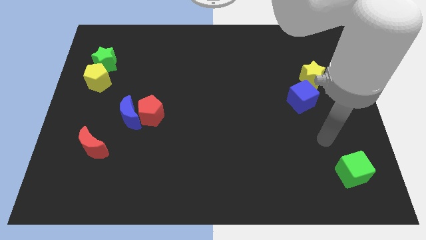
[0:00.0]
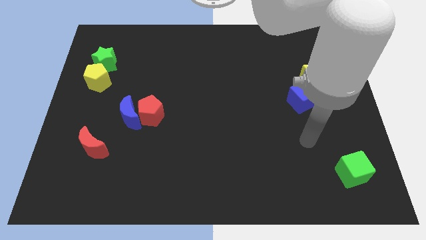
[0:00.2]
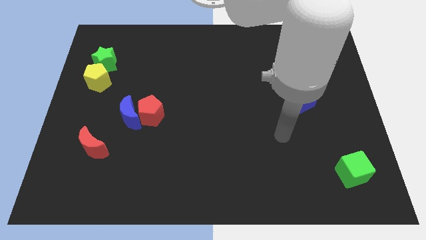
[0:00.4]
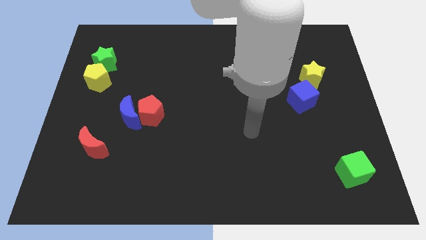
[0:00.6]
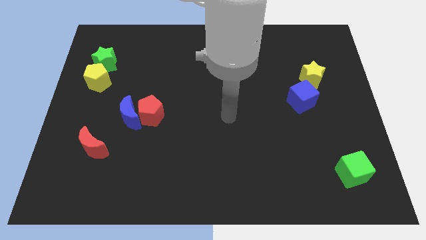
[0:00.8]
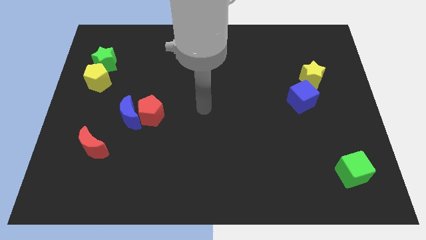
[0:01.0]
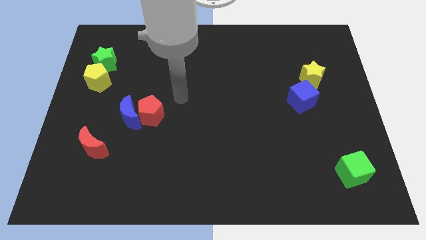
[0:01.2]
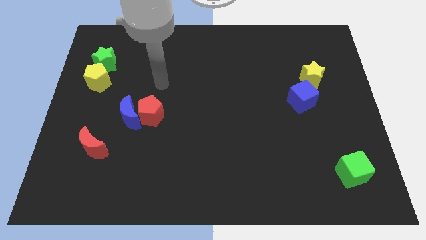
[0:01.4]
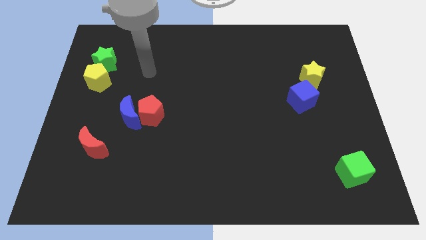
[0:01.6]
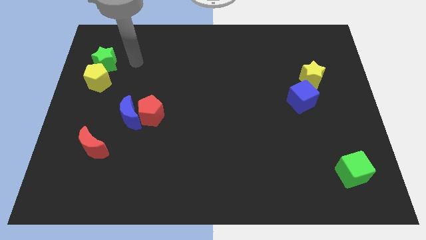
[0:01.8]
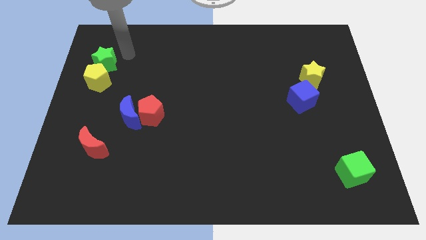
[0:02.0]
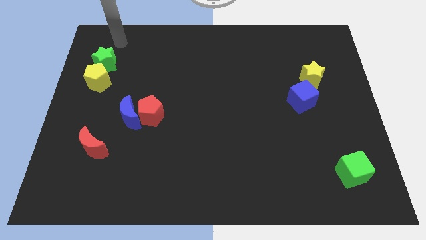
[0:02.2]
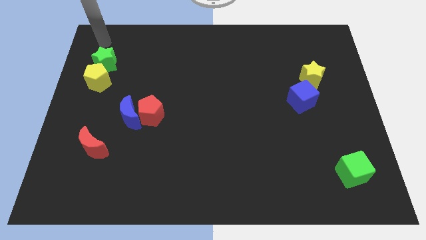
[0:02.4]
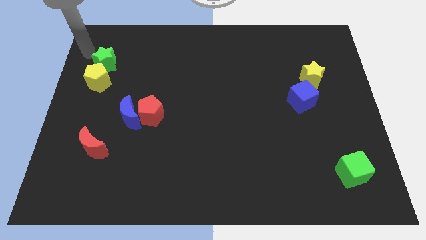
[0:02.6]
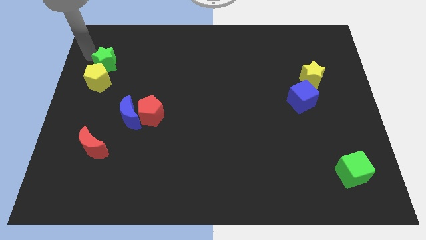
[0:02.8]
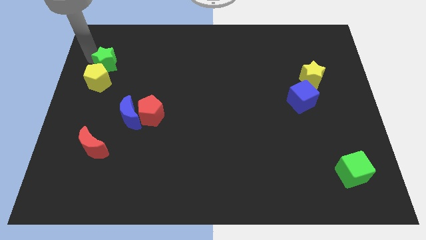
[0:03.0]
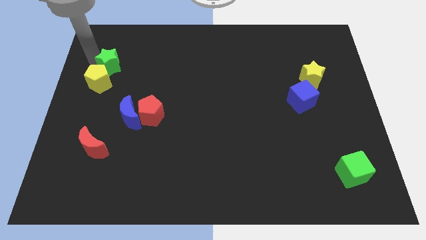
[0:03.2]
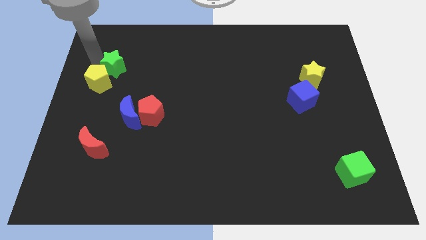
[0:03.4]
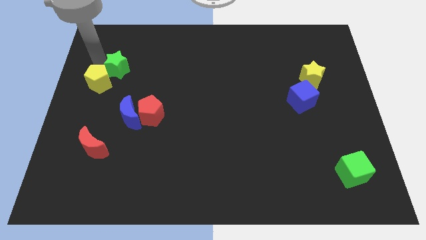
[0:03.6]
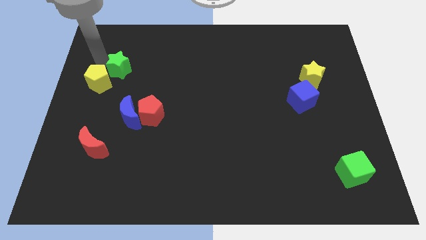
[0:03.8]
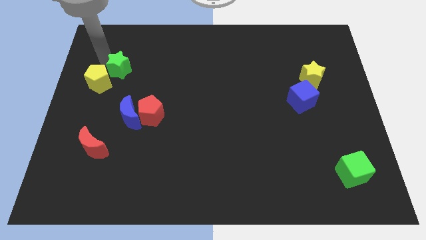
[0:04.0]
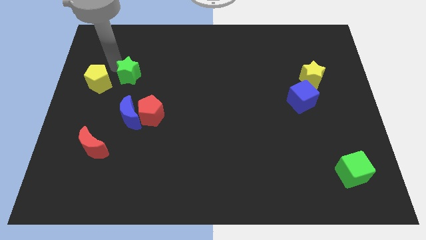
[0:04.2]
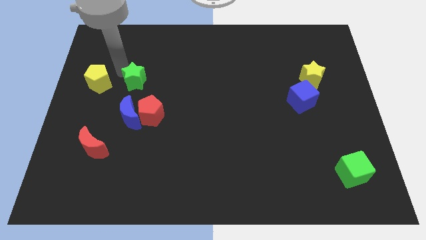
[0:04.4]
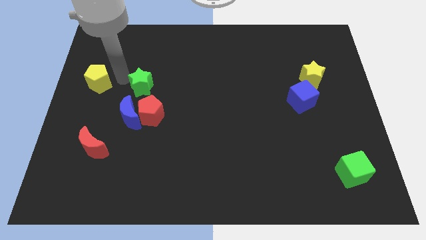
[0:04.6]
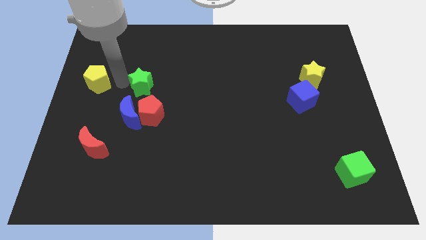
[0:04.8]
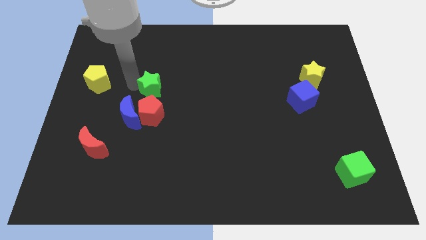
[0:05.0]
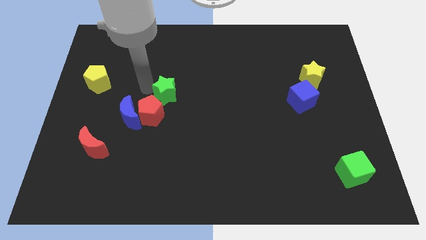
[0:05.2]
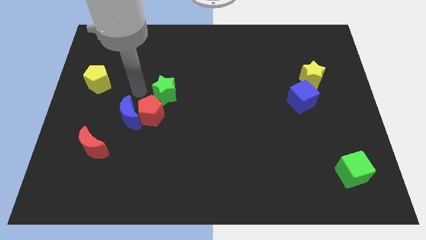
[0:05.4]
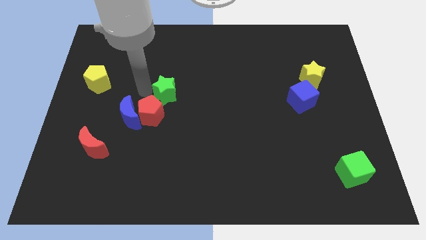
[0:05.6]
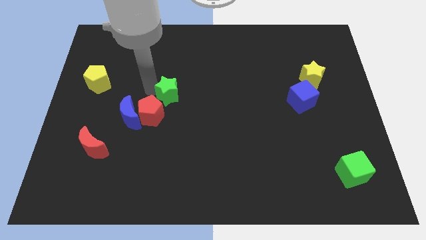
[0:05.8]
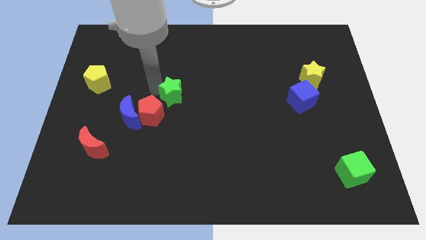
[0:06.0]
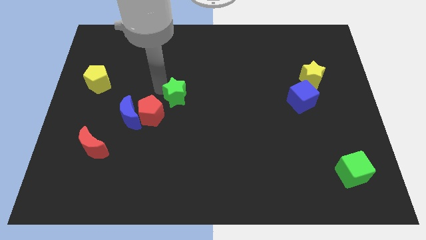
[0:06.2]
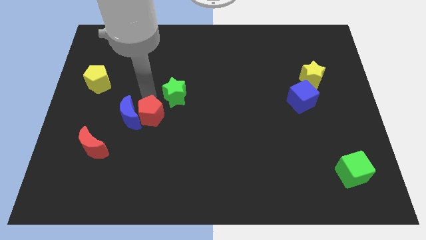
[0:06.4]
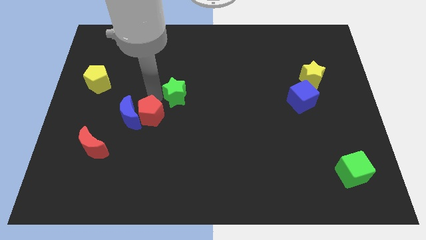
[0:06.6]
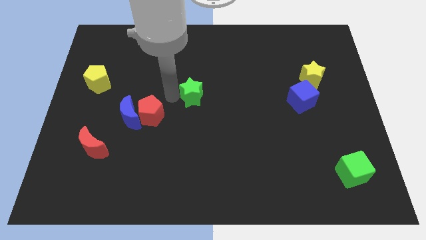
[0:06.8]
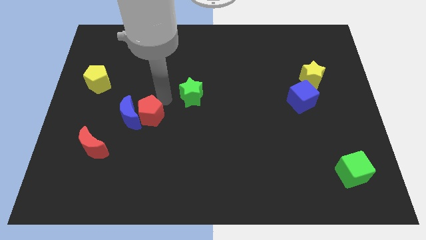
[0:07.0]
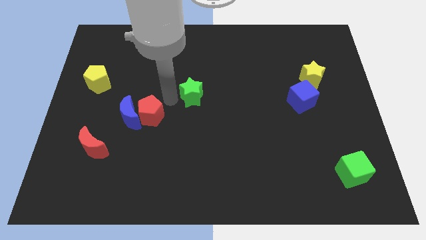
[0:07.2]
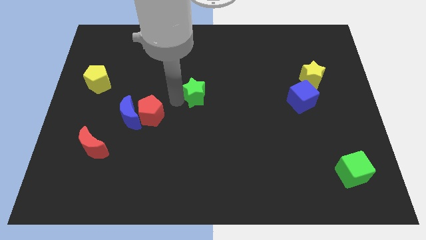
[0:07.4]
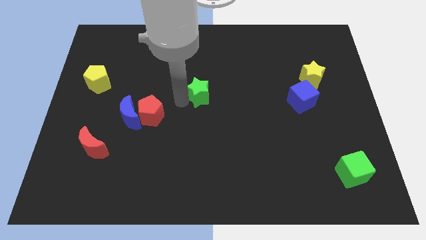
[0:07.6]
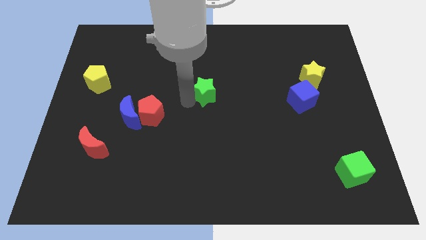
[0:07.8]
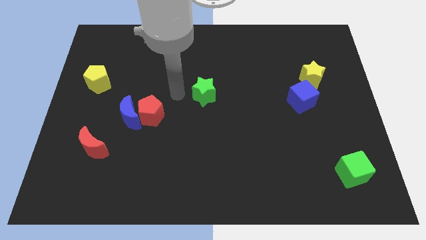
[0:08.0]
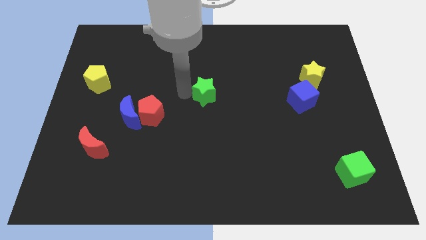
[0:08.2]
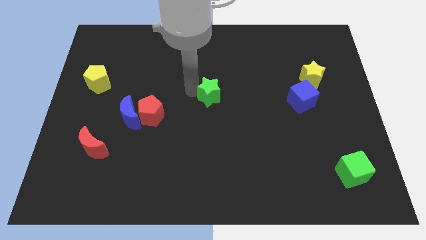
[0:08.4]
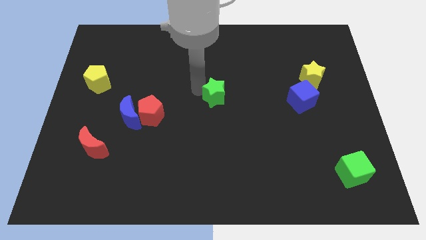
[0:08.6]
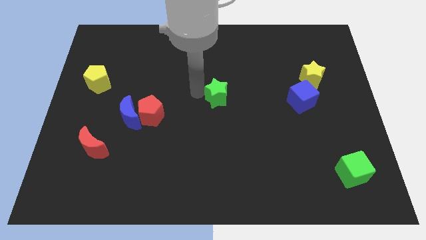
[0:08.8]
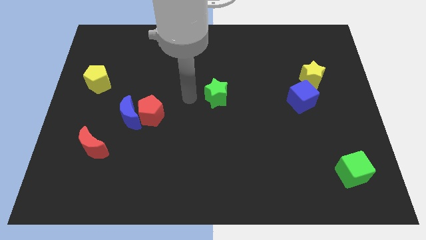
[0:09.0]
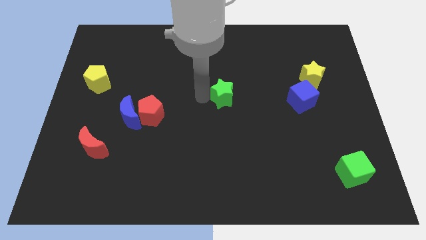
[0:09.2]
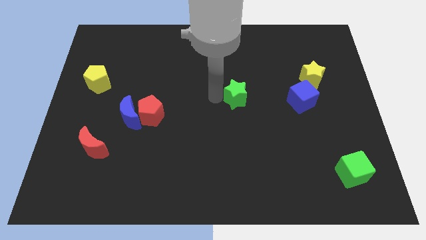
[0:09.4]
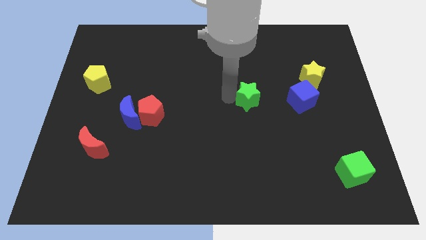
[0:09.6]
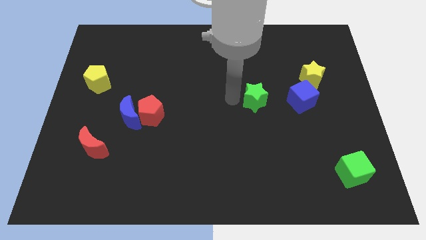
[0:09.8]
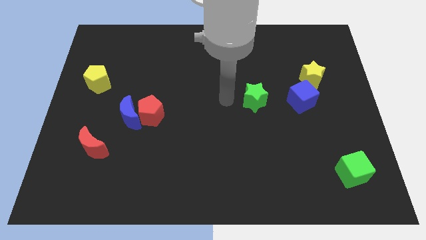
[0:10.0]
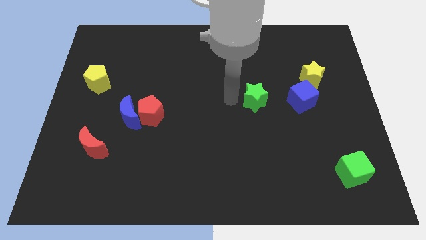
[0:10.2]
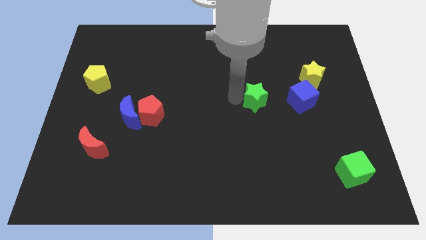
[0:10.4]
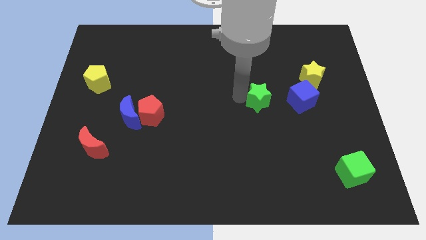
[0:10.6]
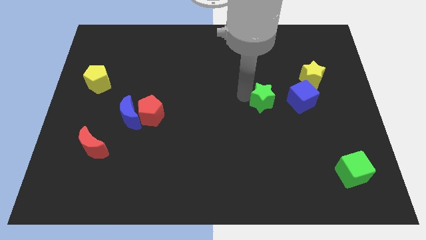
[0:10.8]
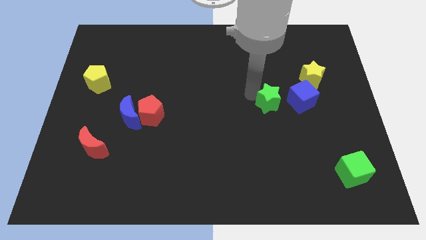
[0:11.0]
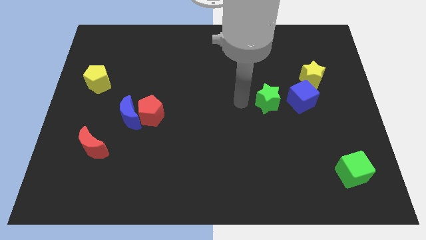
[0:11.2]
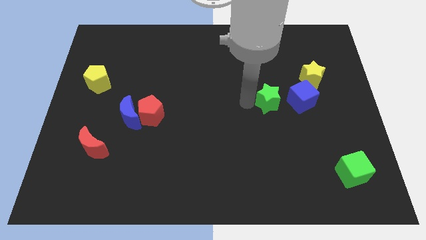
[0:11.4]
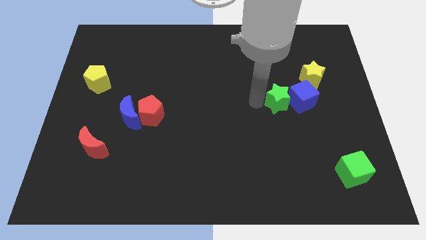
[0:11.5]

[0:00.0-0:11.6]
push the green star towards the blue cube

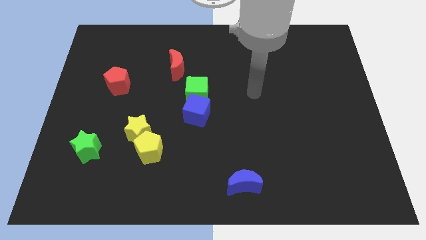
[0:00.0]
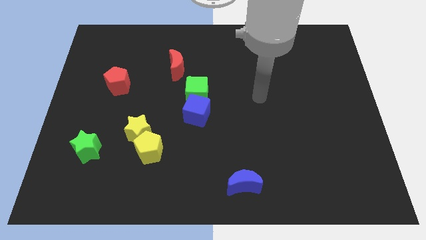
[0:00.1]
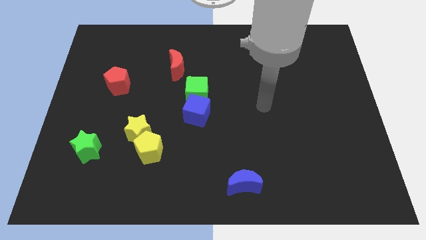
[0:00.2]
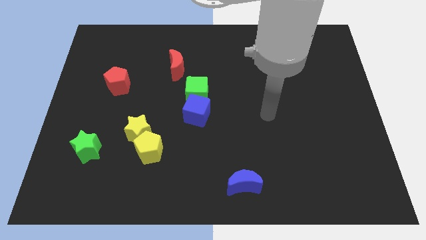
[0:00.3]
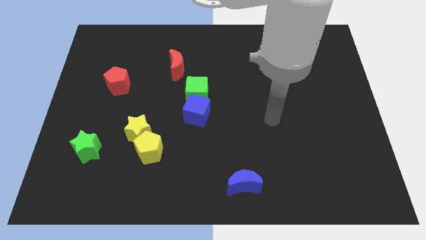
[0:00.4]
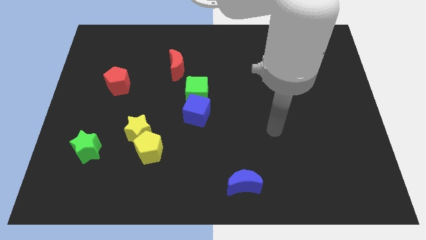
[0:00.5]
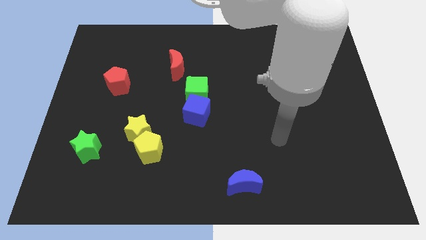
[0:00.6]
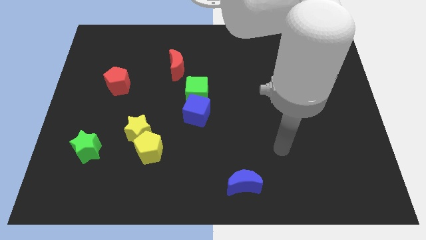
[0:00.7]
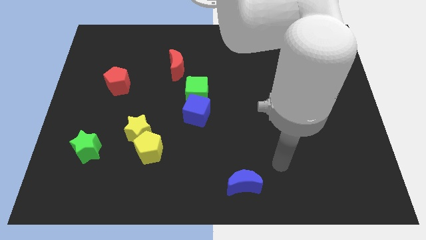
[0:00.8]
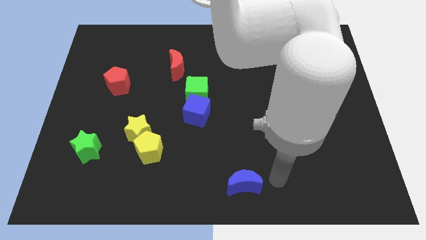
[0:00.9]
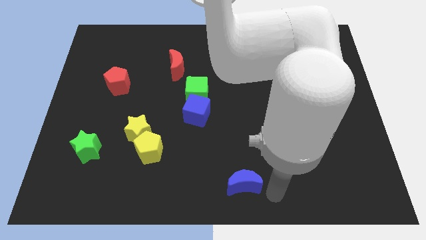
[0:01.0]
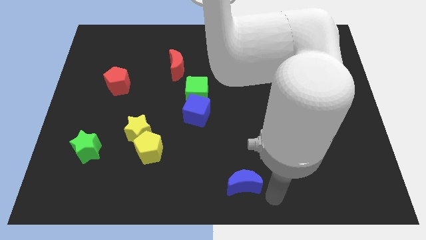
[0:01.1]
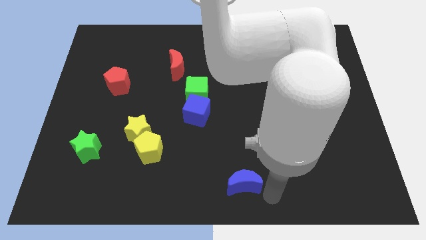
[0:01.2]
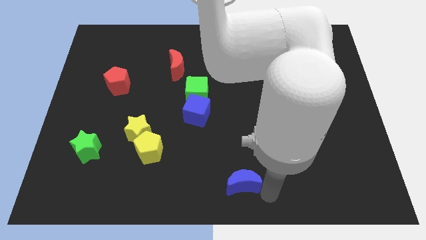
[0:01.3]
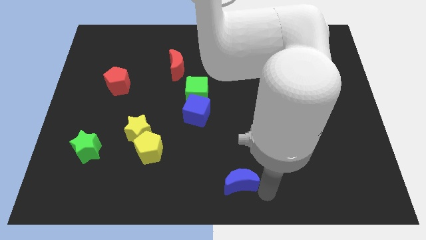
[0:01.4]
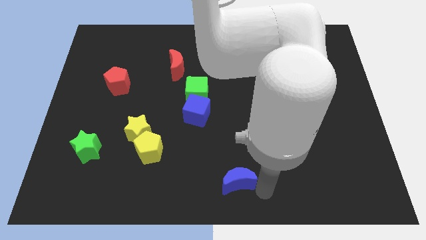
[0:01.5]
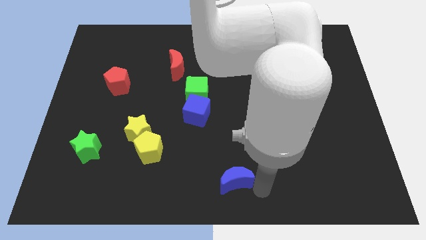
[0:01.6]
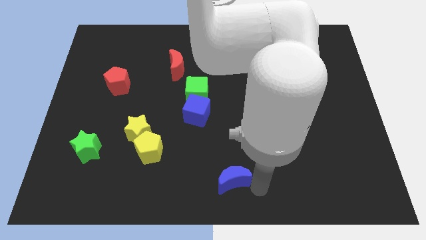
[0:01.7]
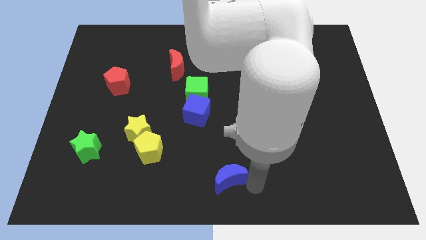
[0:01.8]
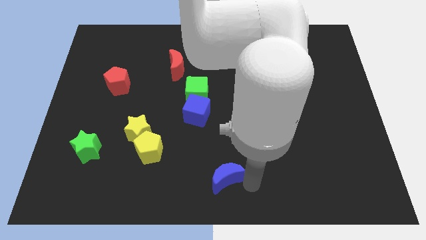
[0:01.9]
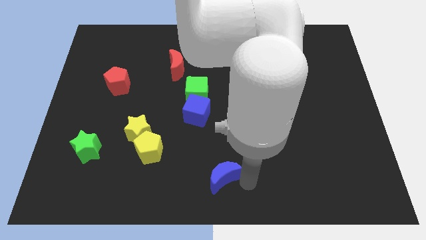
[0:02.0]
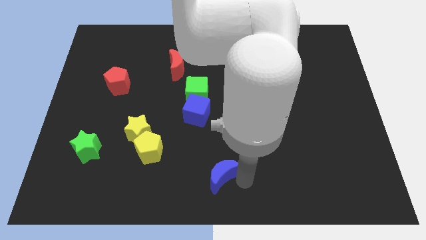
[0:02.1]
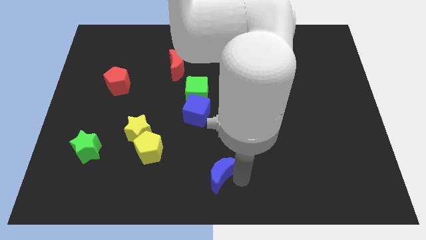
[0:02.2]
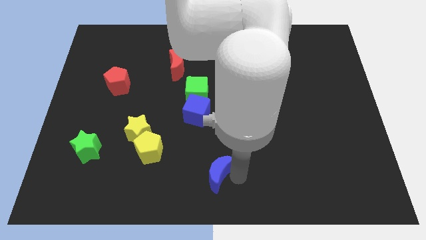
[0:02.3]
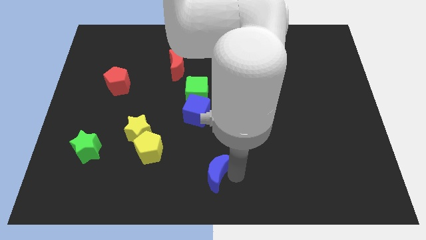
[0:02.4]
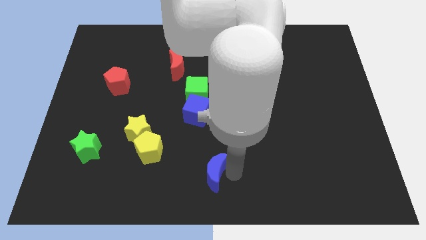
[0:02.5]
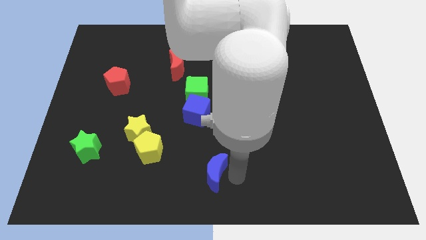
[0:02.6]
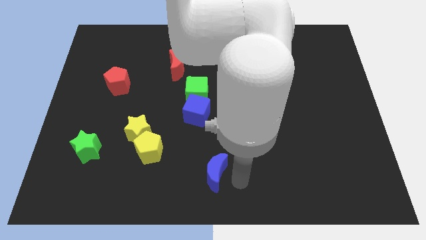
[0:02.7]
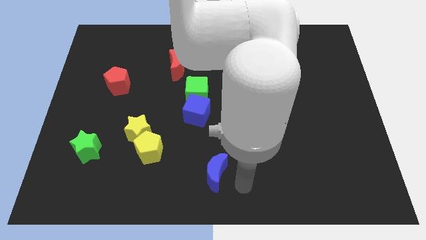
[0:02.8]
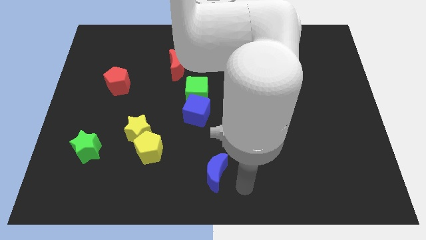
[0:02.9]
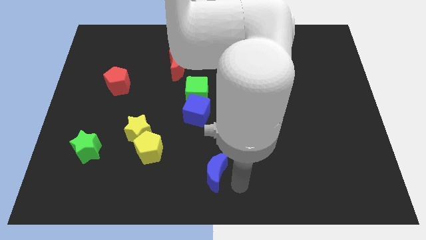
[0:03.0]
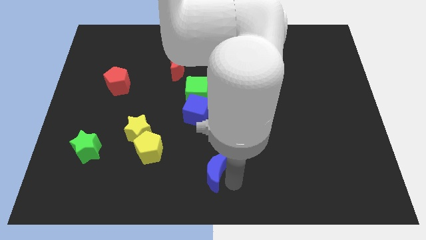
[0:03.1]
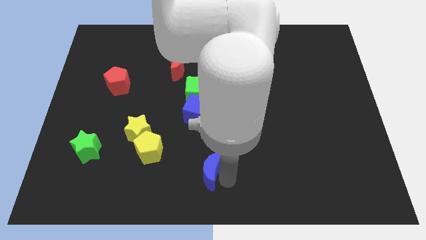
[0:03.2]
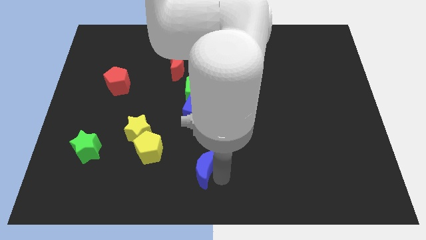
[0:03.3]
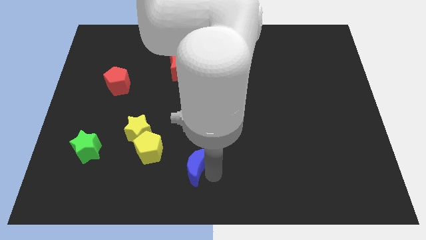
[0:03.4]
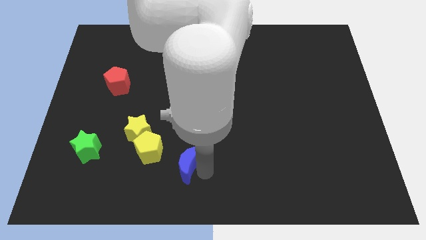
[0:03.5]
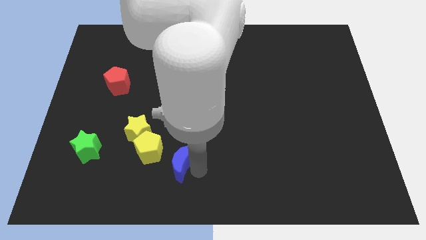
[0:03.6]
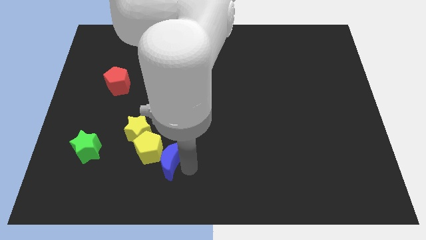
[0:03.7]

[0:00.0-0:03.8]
move the blue moon towards the yellow pentagon
